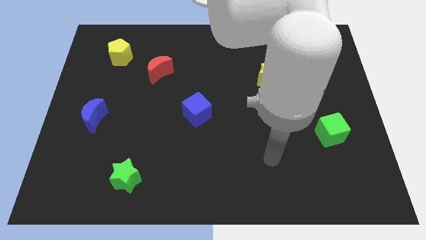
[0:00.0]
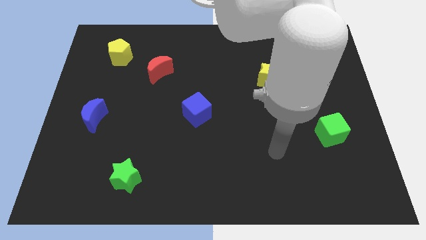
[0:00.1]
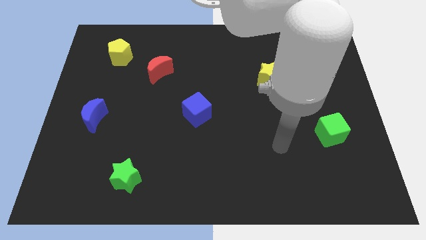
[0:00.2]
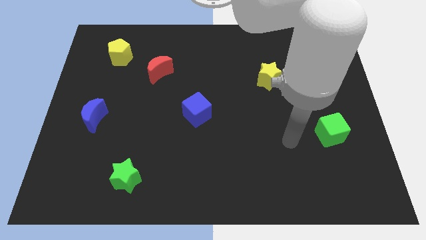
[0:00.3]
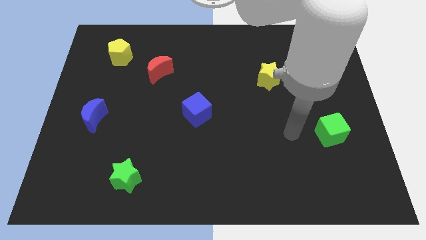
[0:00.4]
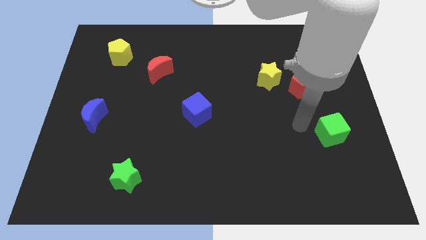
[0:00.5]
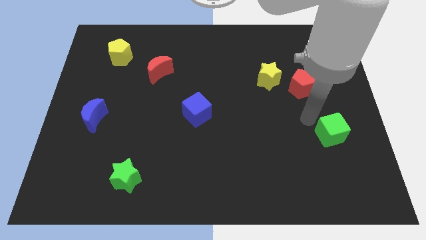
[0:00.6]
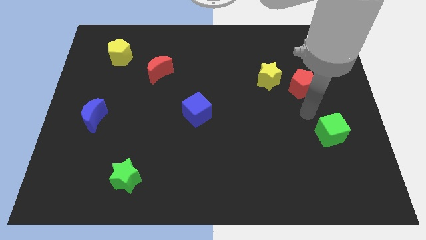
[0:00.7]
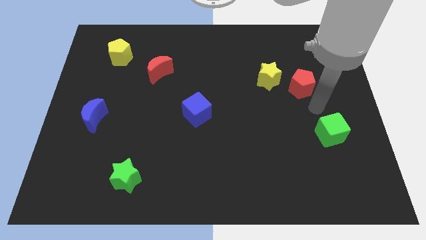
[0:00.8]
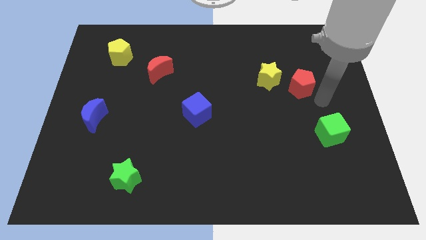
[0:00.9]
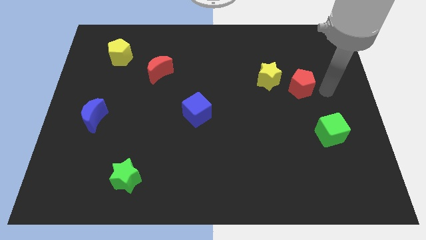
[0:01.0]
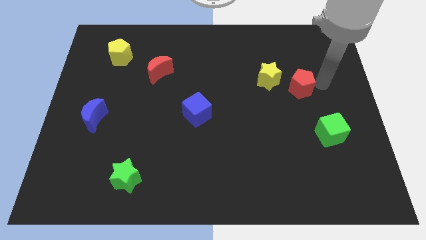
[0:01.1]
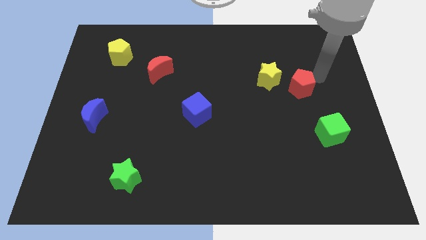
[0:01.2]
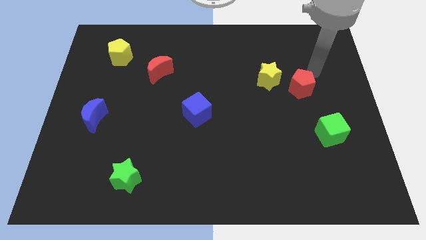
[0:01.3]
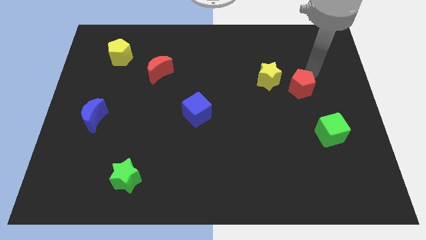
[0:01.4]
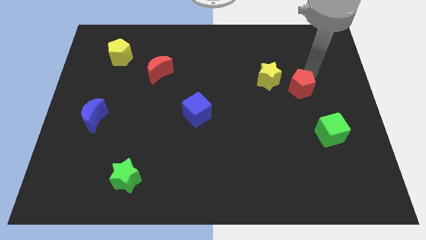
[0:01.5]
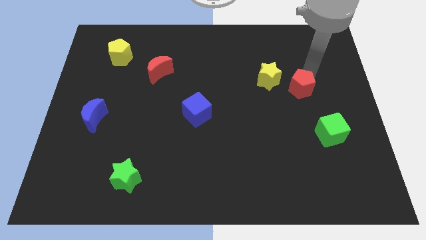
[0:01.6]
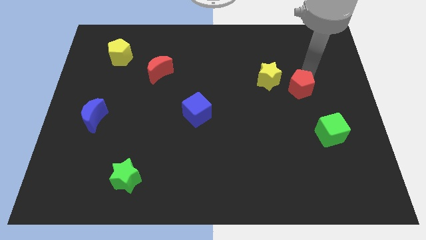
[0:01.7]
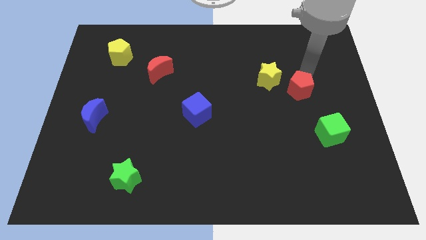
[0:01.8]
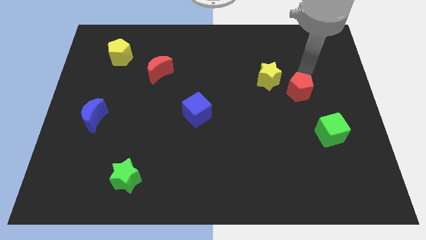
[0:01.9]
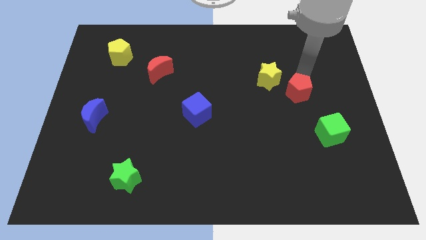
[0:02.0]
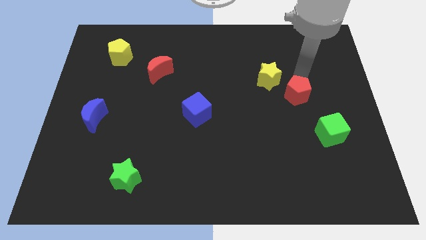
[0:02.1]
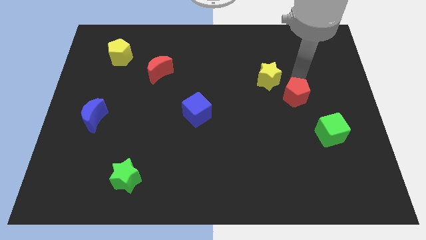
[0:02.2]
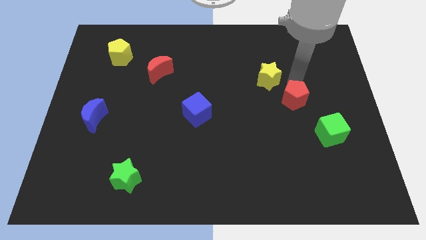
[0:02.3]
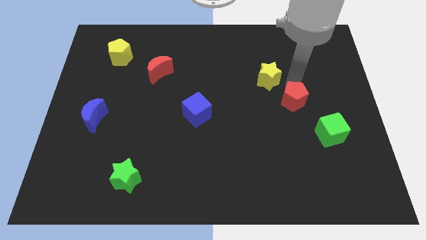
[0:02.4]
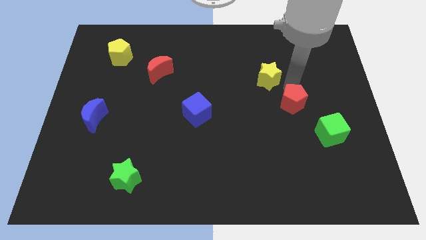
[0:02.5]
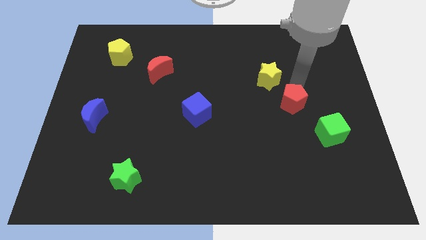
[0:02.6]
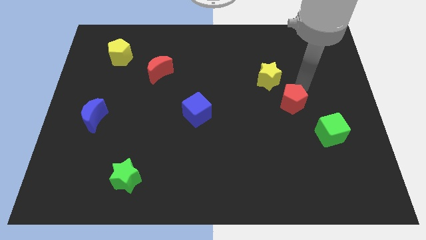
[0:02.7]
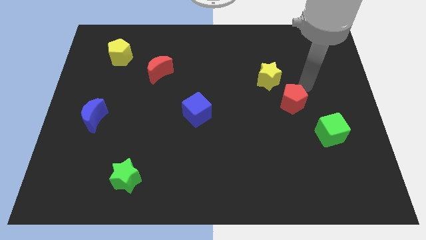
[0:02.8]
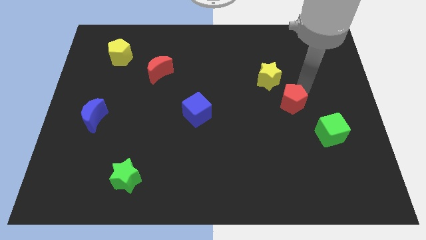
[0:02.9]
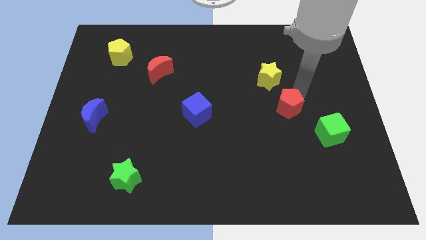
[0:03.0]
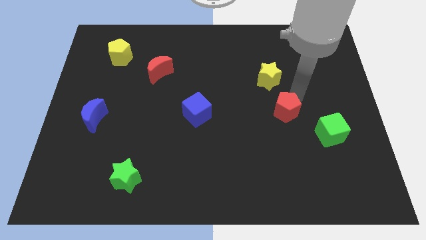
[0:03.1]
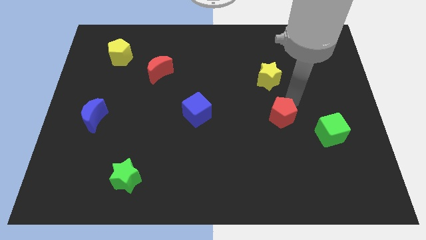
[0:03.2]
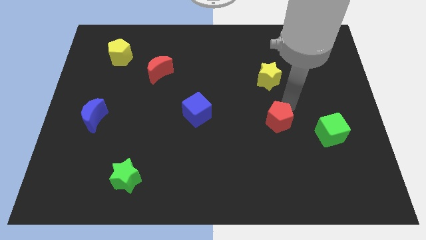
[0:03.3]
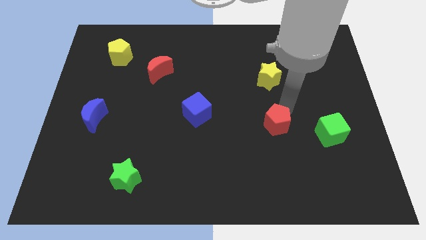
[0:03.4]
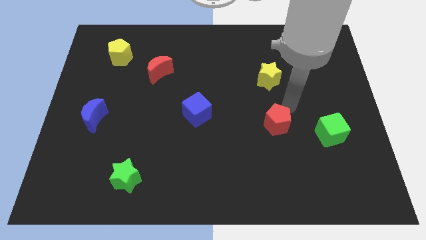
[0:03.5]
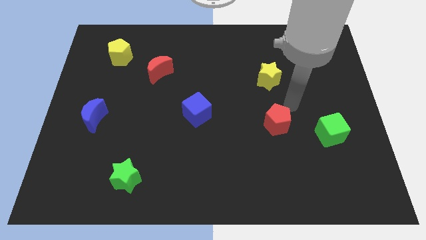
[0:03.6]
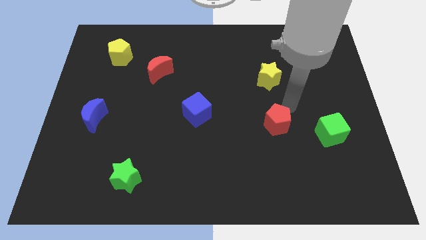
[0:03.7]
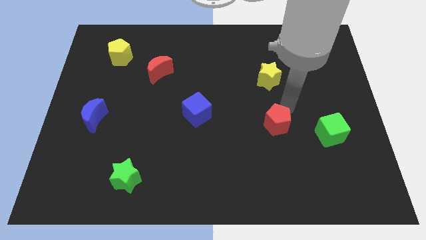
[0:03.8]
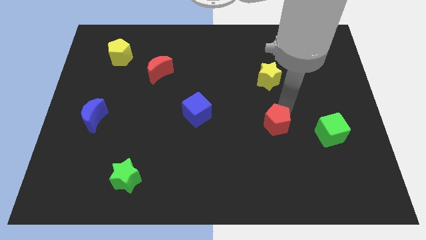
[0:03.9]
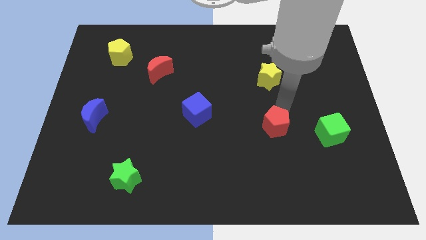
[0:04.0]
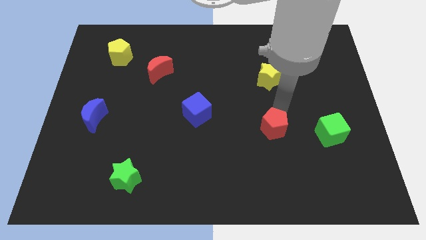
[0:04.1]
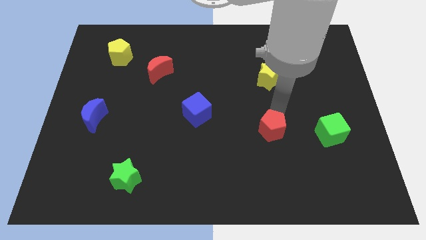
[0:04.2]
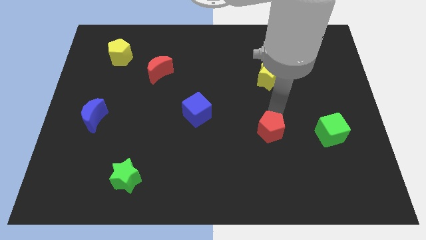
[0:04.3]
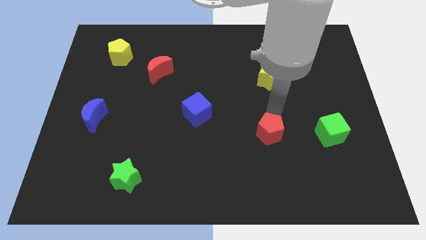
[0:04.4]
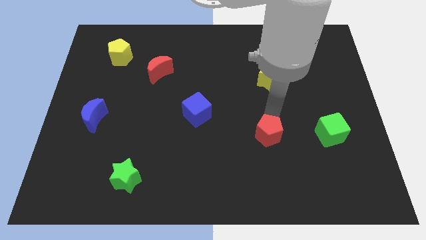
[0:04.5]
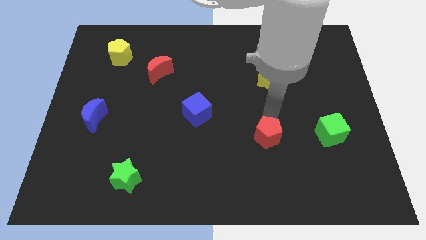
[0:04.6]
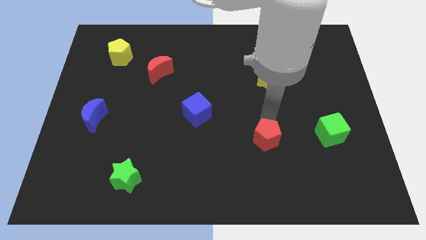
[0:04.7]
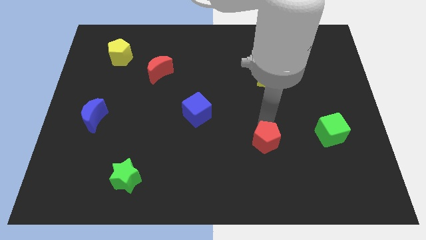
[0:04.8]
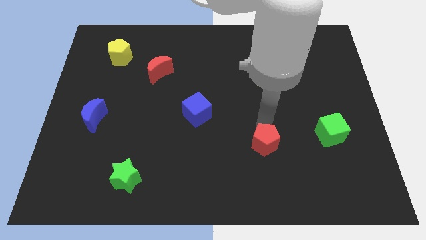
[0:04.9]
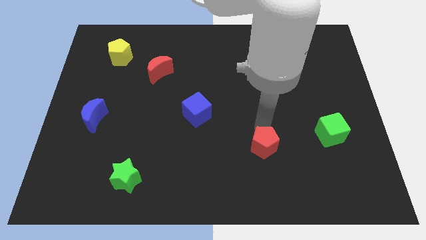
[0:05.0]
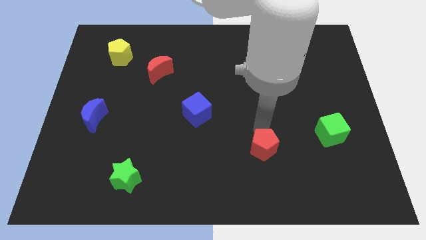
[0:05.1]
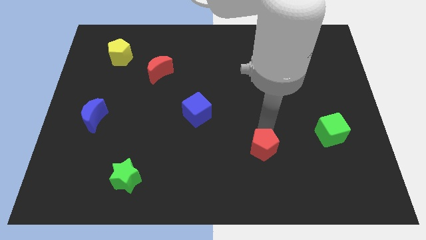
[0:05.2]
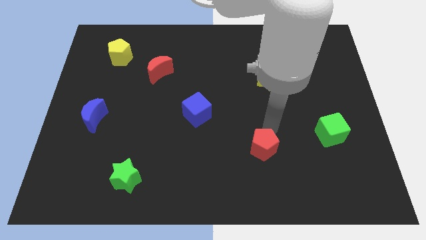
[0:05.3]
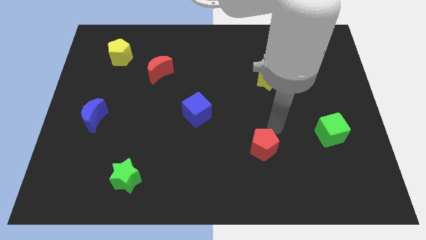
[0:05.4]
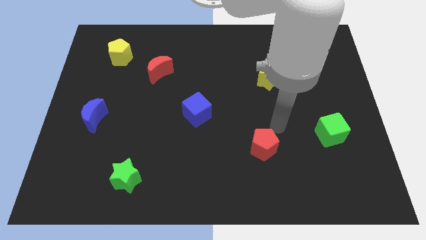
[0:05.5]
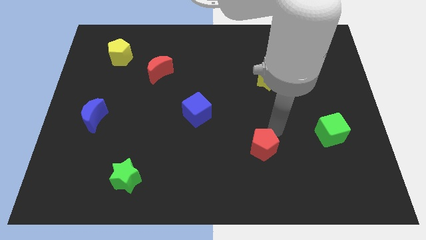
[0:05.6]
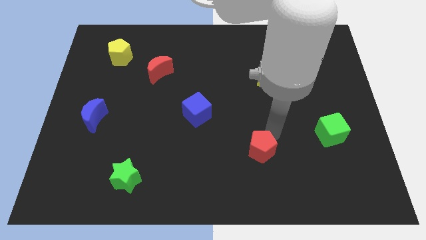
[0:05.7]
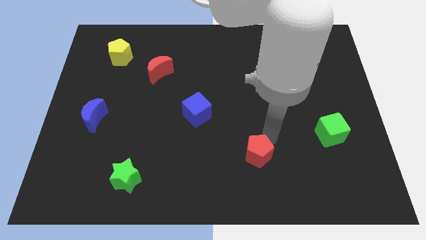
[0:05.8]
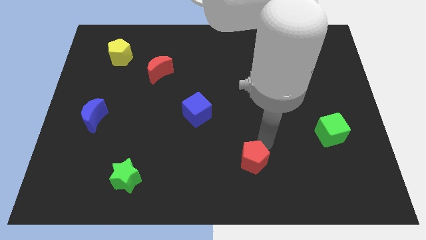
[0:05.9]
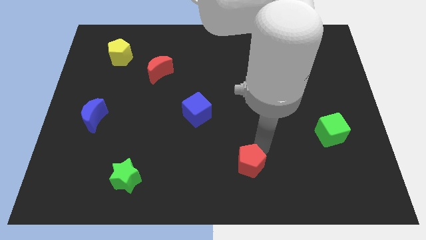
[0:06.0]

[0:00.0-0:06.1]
slide the red pentagon to the bottom

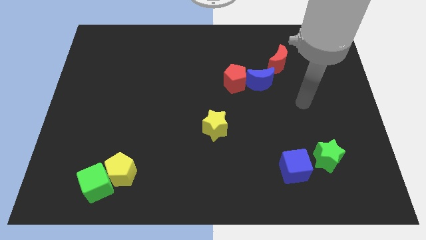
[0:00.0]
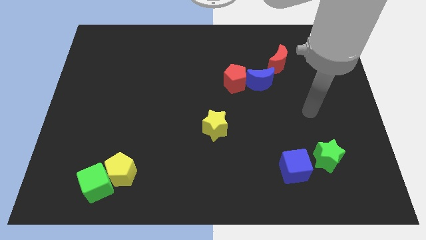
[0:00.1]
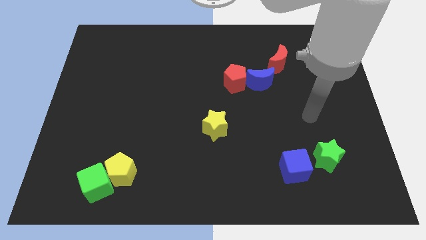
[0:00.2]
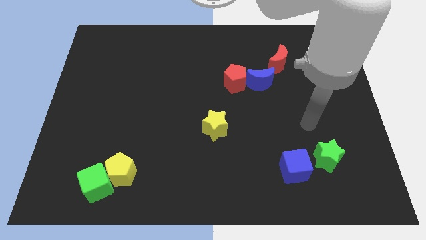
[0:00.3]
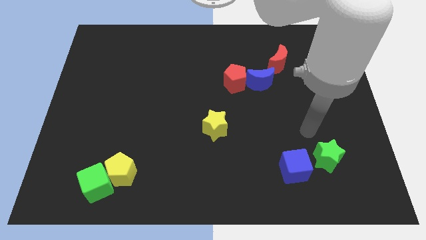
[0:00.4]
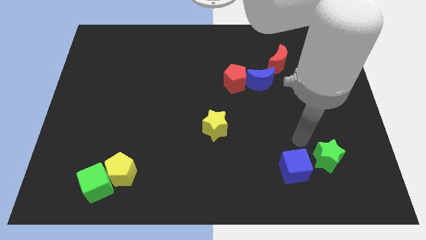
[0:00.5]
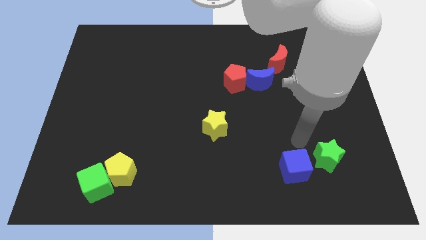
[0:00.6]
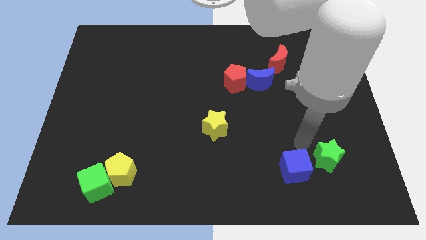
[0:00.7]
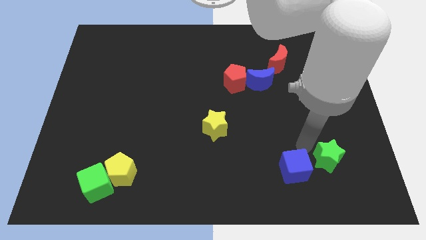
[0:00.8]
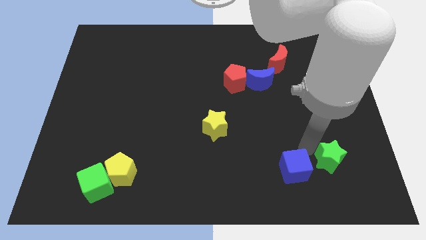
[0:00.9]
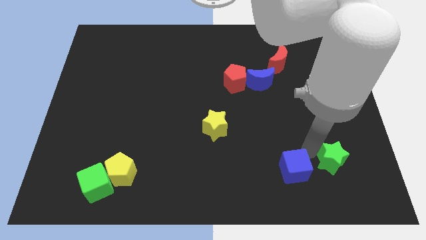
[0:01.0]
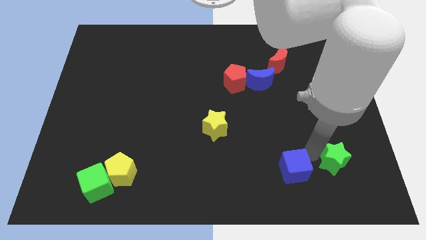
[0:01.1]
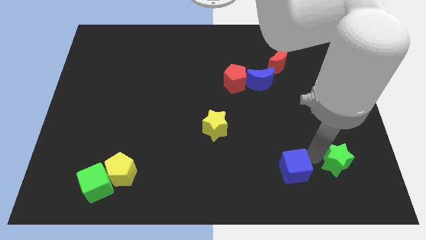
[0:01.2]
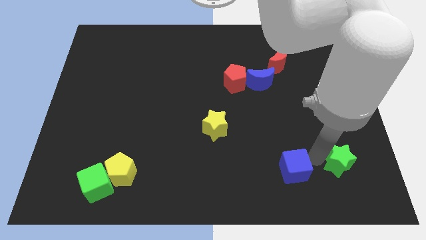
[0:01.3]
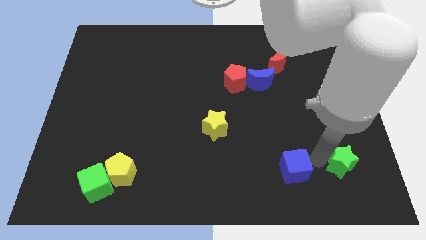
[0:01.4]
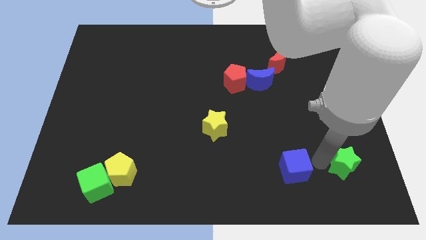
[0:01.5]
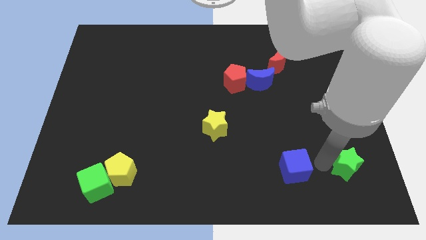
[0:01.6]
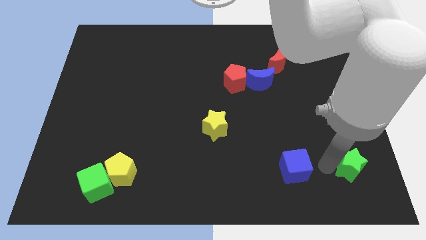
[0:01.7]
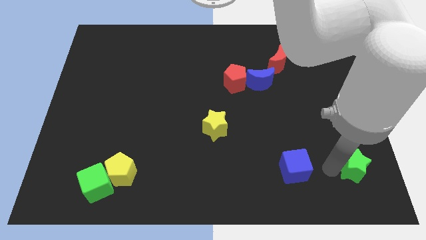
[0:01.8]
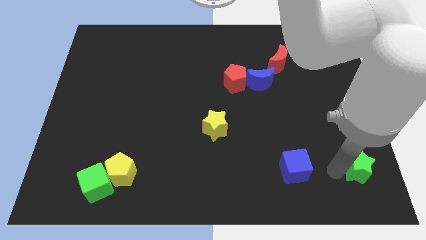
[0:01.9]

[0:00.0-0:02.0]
push the green star to the bottom right of the board
